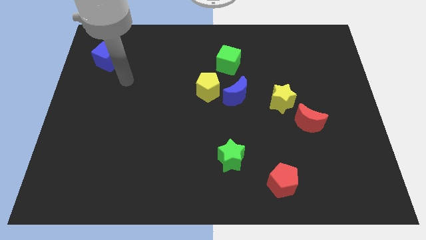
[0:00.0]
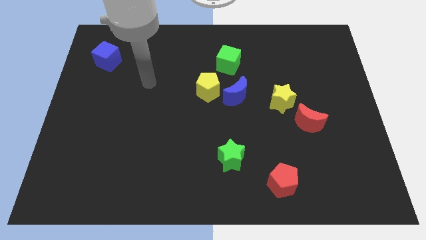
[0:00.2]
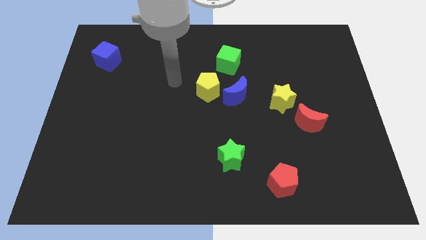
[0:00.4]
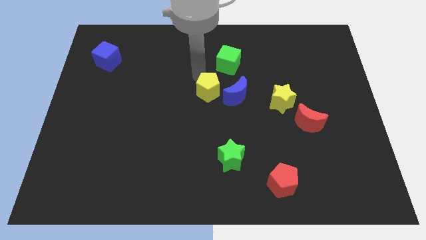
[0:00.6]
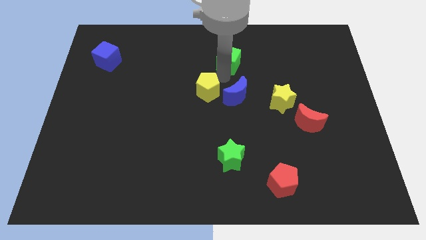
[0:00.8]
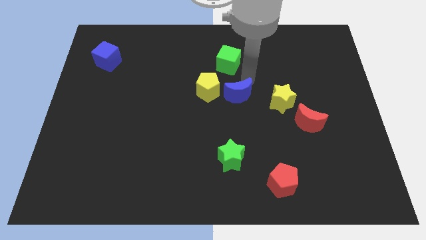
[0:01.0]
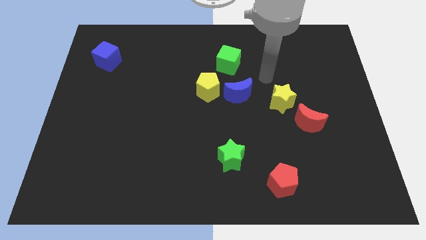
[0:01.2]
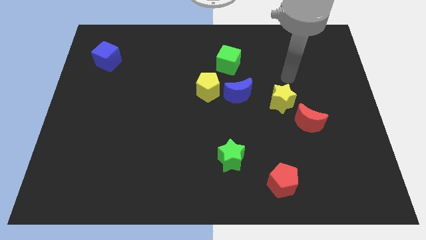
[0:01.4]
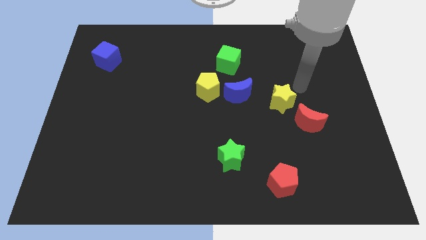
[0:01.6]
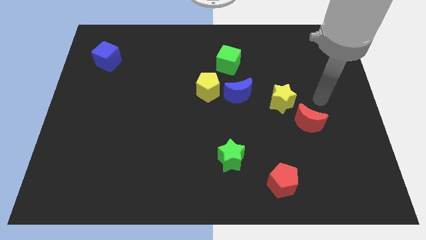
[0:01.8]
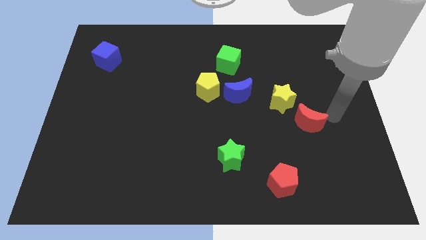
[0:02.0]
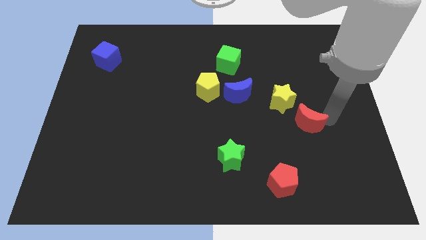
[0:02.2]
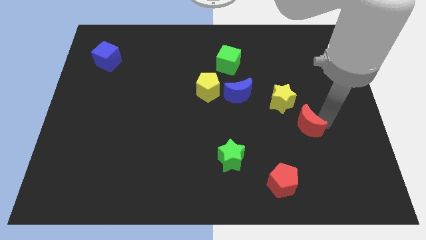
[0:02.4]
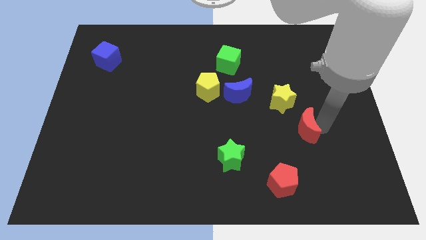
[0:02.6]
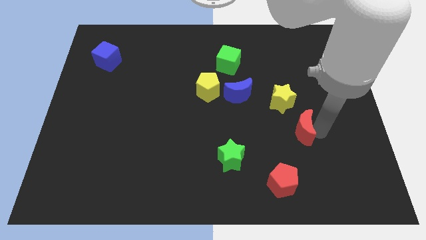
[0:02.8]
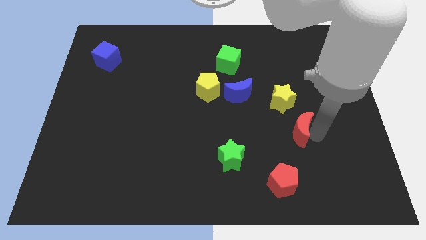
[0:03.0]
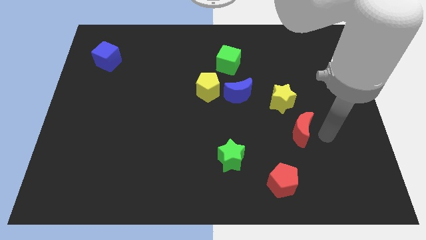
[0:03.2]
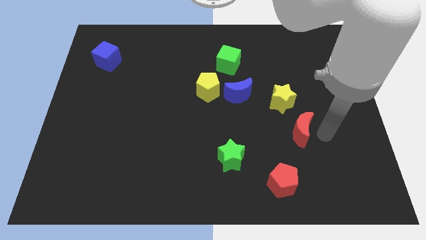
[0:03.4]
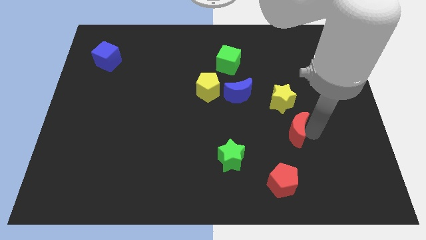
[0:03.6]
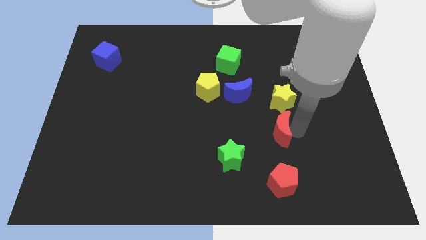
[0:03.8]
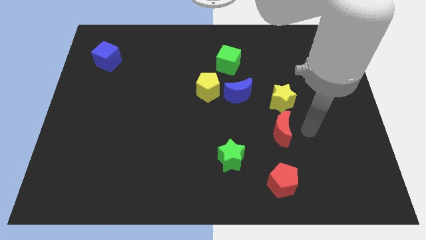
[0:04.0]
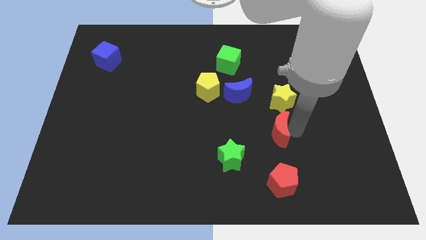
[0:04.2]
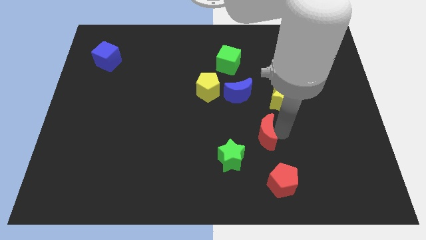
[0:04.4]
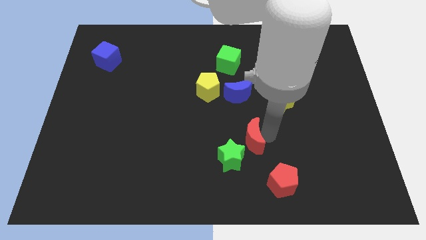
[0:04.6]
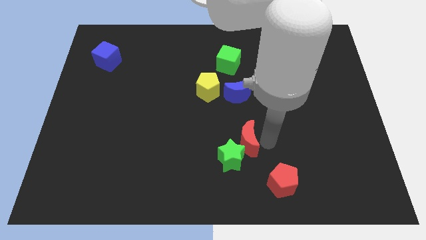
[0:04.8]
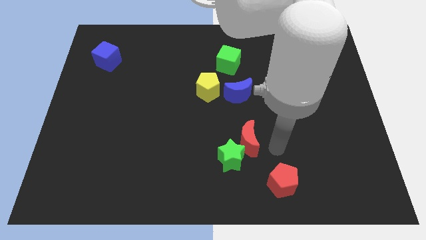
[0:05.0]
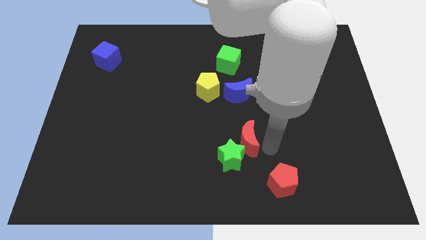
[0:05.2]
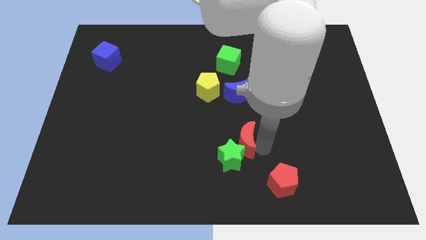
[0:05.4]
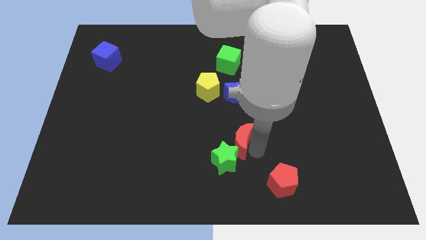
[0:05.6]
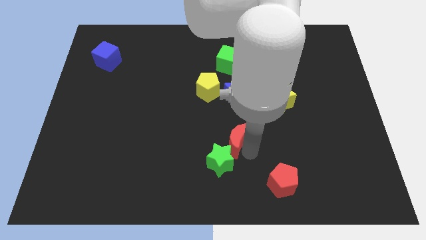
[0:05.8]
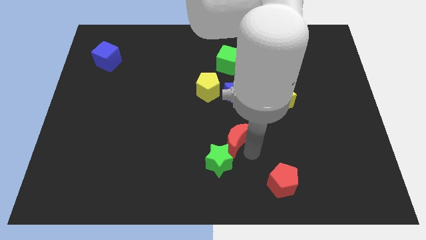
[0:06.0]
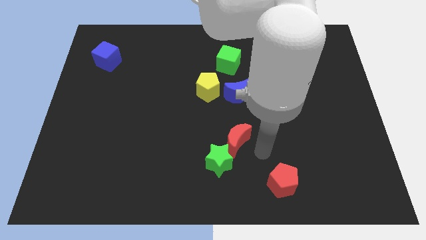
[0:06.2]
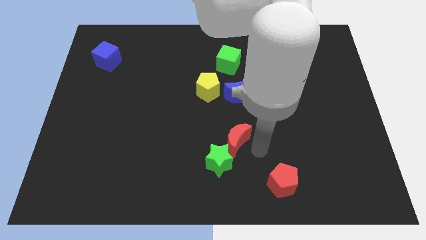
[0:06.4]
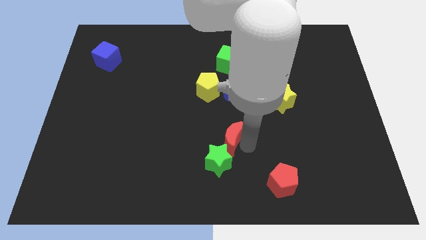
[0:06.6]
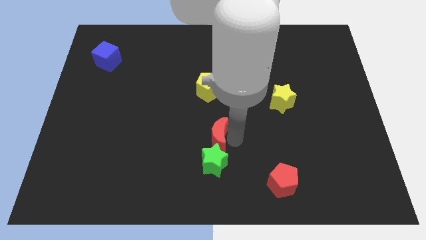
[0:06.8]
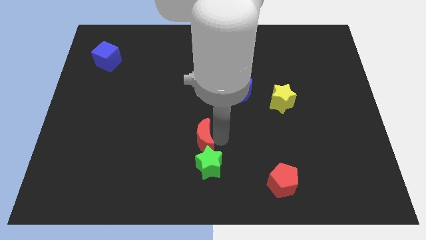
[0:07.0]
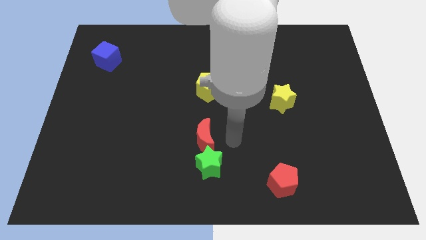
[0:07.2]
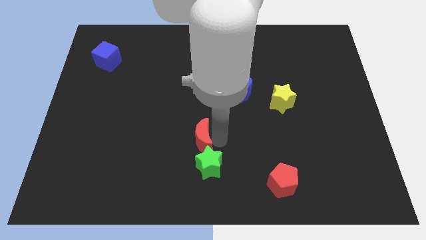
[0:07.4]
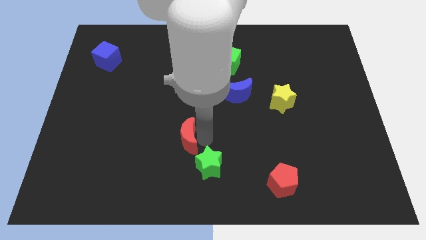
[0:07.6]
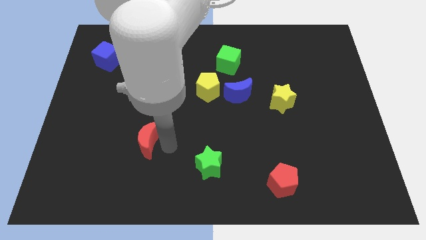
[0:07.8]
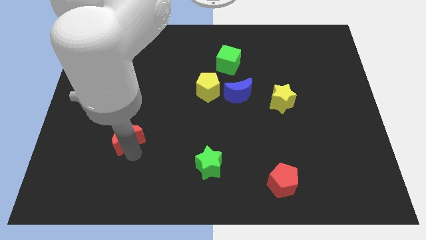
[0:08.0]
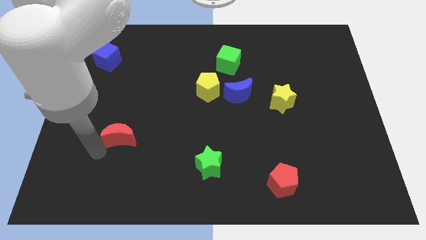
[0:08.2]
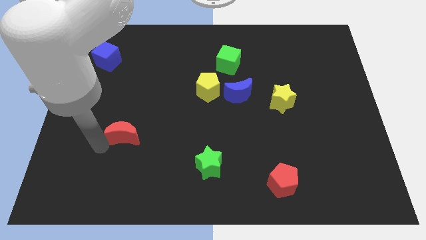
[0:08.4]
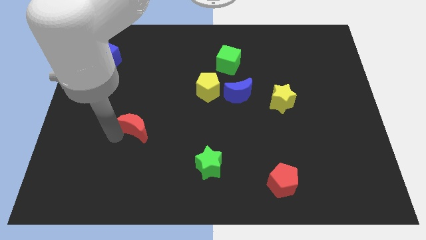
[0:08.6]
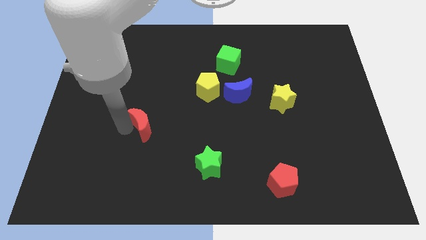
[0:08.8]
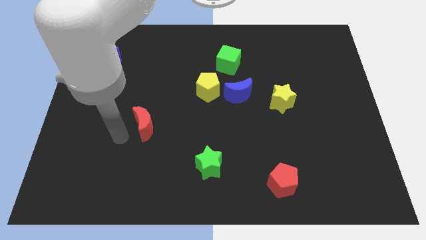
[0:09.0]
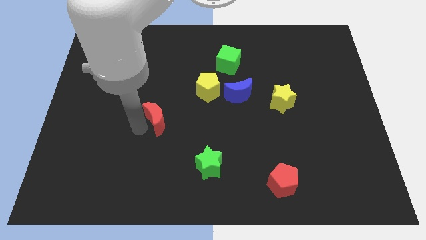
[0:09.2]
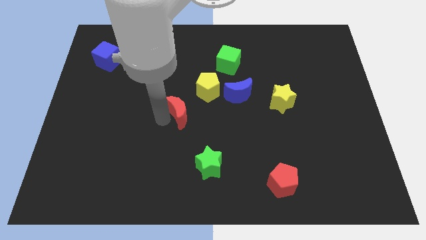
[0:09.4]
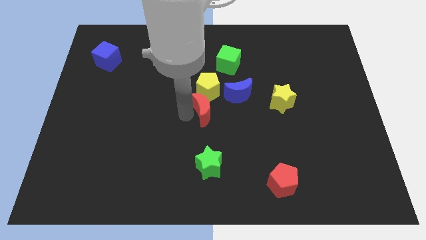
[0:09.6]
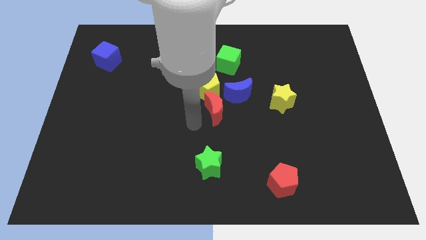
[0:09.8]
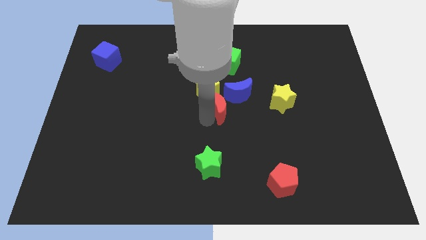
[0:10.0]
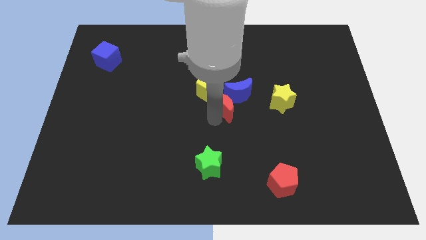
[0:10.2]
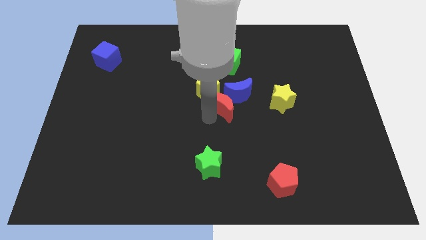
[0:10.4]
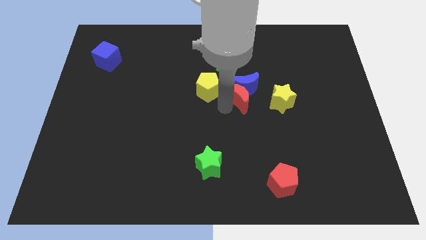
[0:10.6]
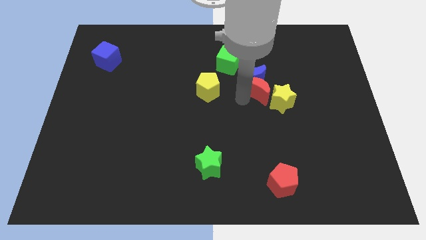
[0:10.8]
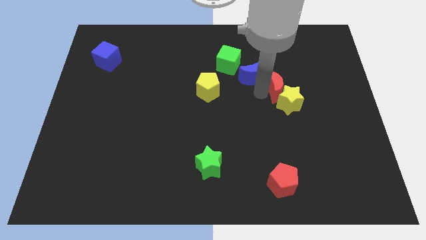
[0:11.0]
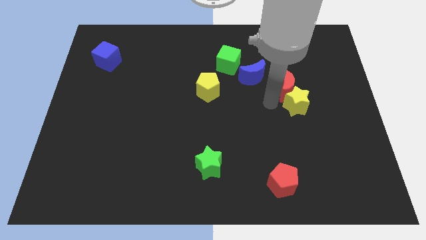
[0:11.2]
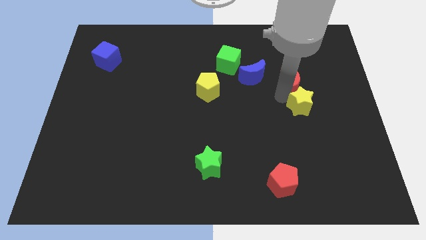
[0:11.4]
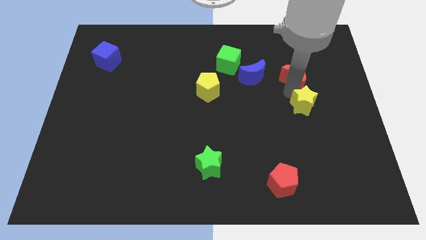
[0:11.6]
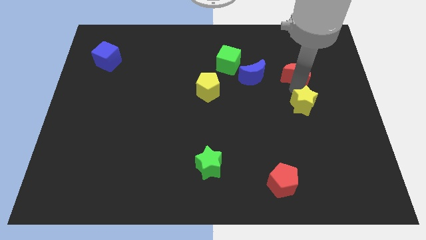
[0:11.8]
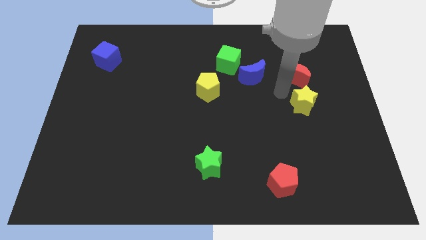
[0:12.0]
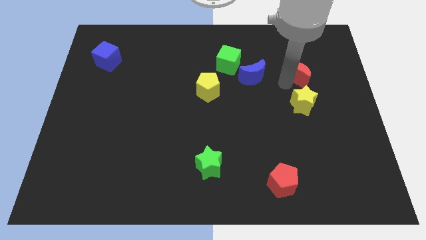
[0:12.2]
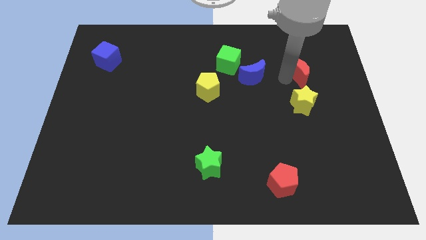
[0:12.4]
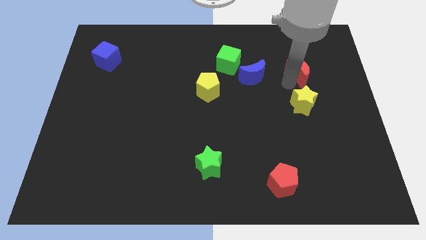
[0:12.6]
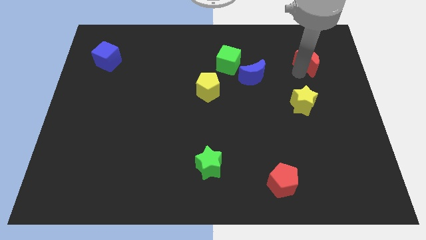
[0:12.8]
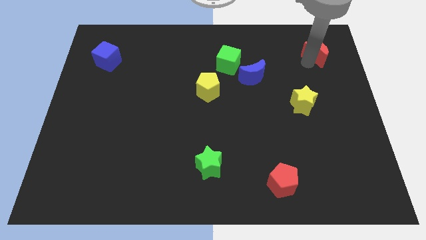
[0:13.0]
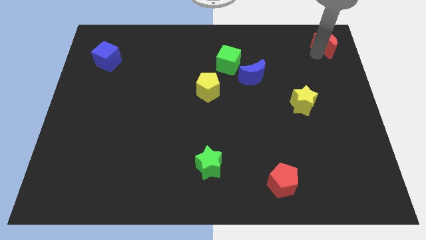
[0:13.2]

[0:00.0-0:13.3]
move the red moon to the top right of the board
